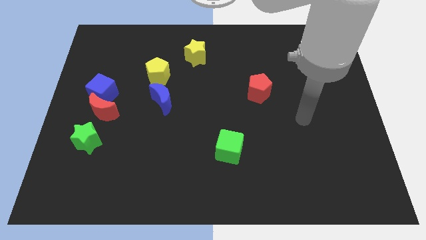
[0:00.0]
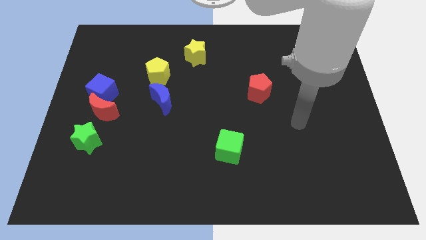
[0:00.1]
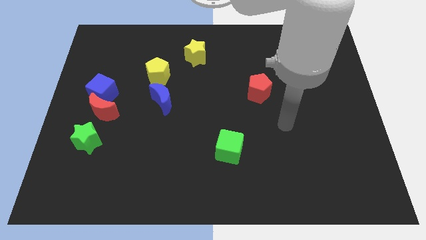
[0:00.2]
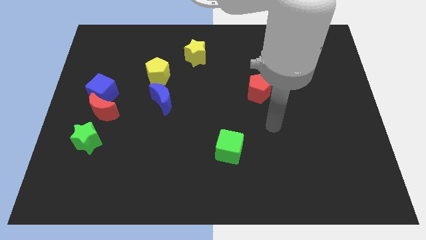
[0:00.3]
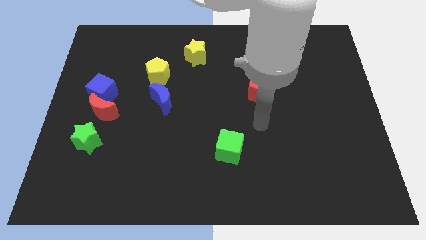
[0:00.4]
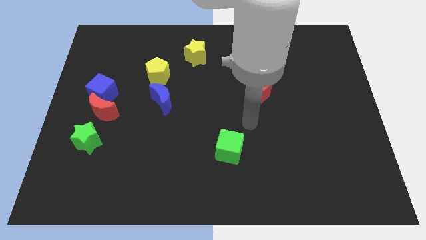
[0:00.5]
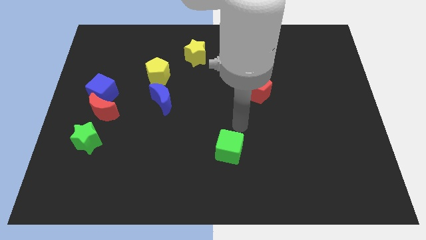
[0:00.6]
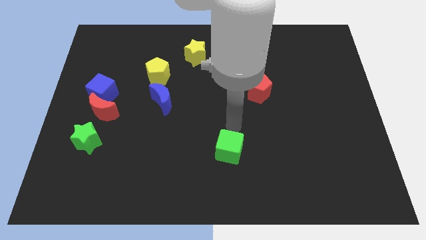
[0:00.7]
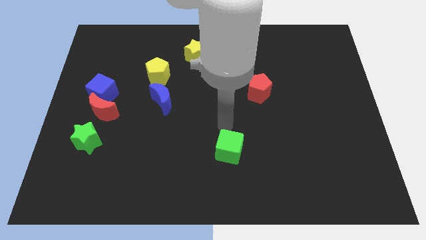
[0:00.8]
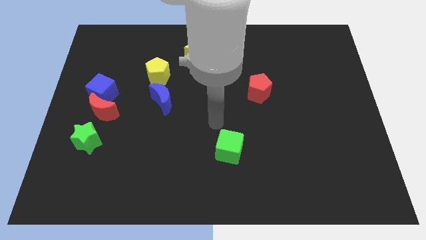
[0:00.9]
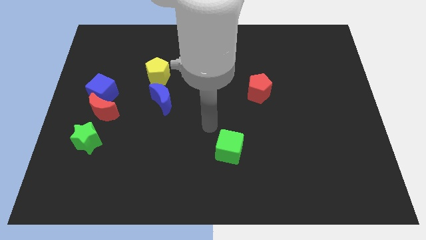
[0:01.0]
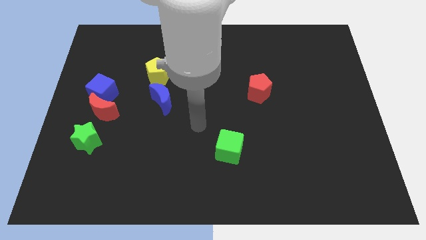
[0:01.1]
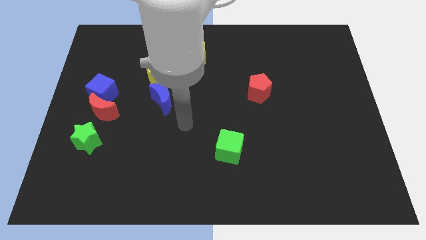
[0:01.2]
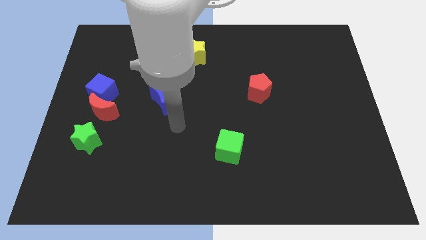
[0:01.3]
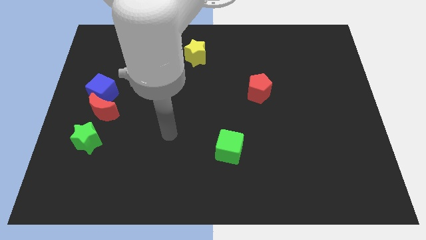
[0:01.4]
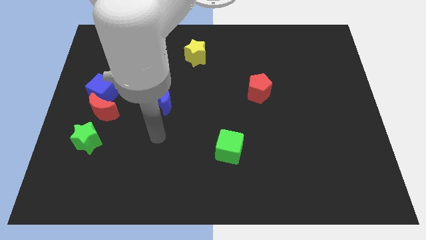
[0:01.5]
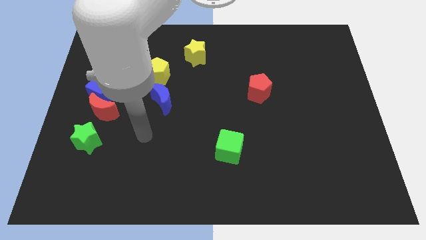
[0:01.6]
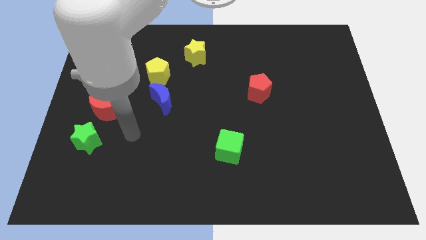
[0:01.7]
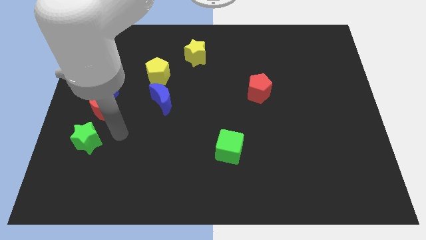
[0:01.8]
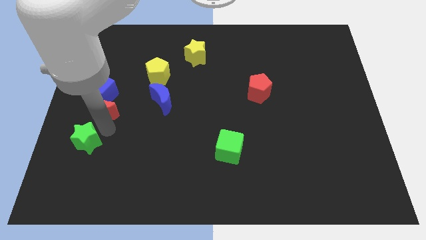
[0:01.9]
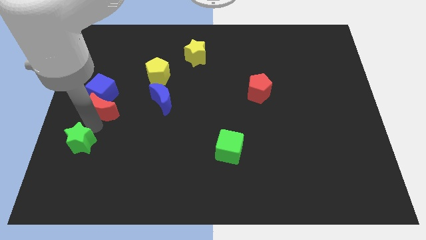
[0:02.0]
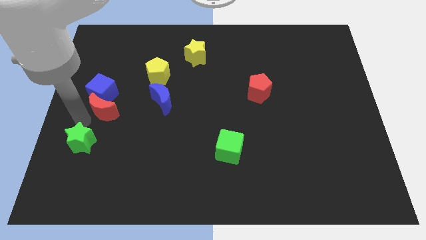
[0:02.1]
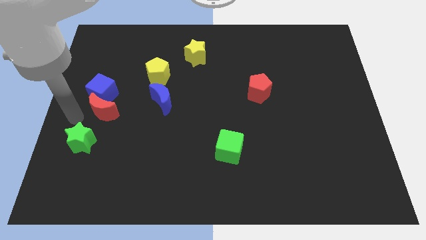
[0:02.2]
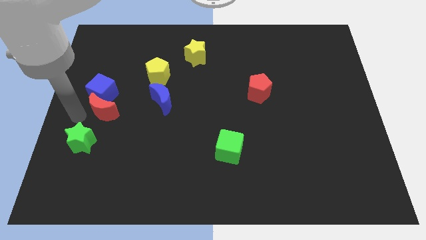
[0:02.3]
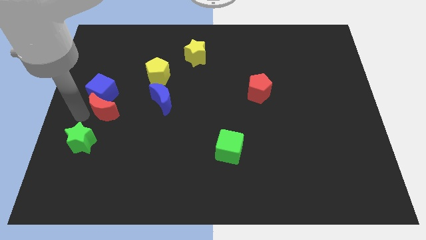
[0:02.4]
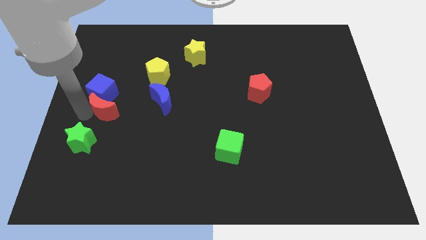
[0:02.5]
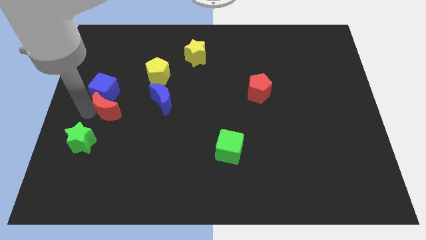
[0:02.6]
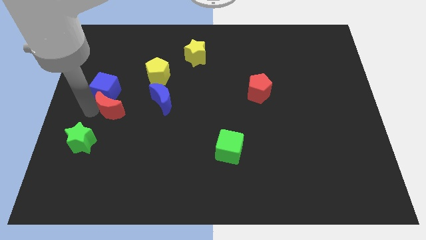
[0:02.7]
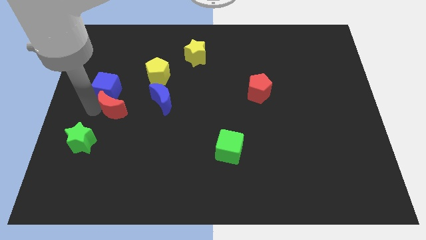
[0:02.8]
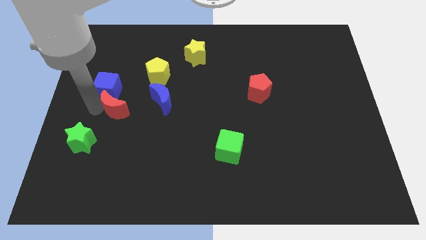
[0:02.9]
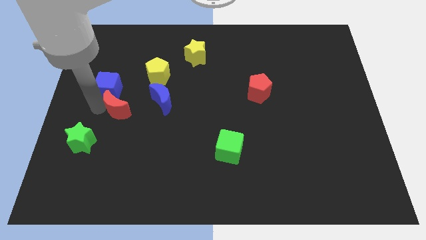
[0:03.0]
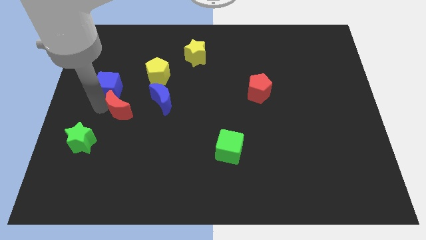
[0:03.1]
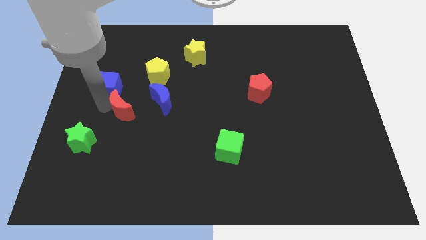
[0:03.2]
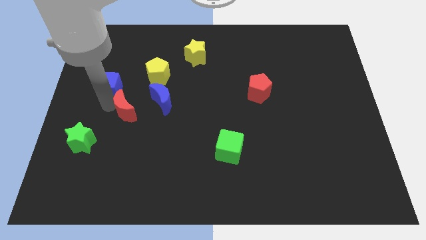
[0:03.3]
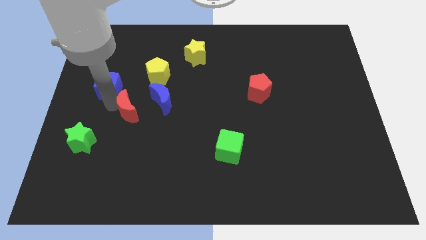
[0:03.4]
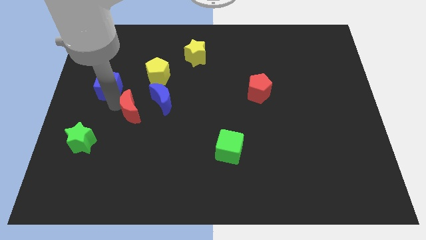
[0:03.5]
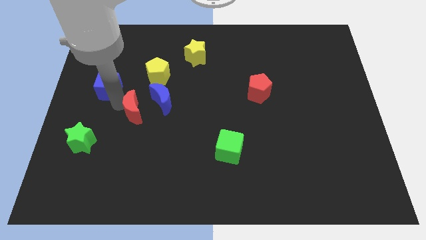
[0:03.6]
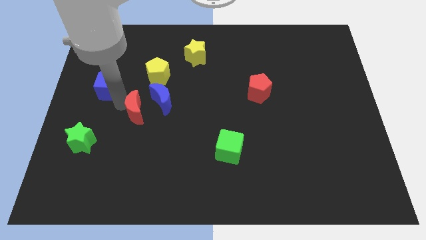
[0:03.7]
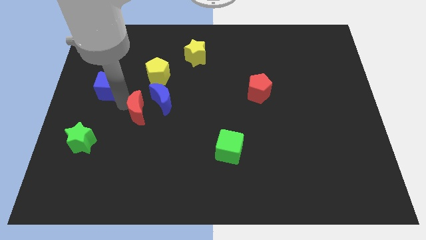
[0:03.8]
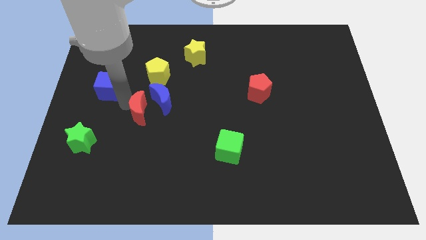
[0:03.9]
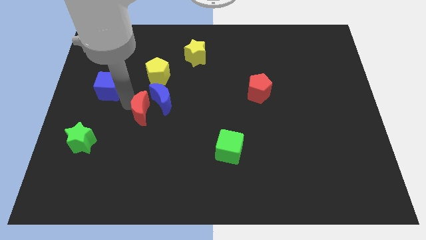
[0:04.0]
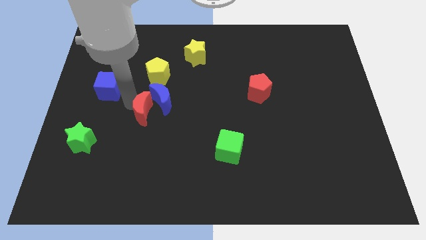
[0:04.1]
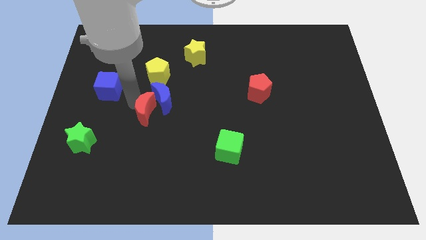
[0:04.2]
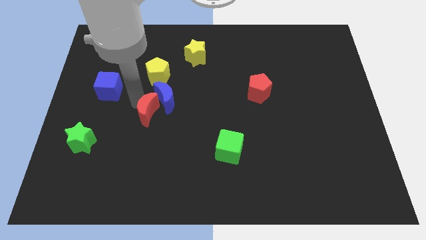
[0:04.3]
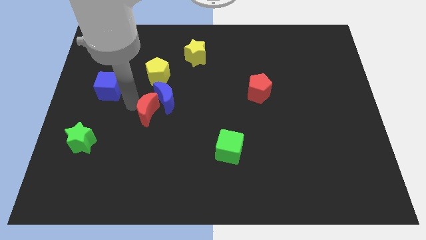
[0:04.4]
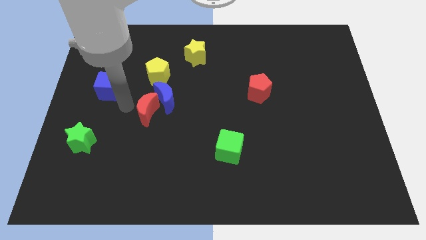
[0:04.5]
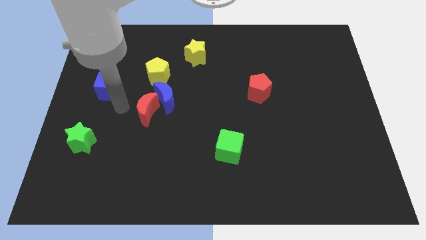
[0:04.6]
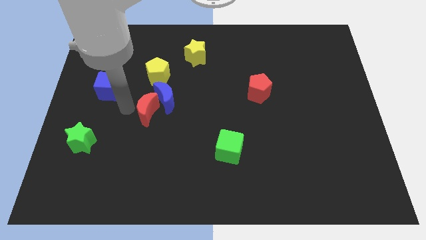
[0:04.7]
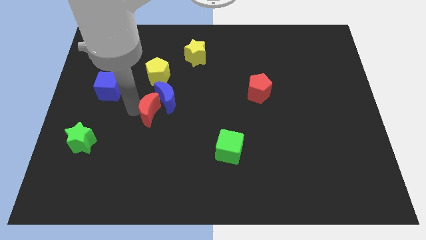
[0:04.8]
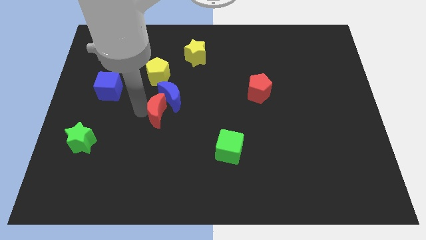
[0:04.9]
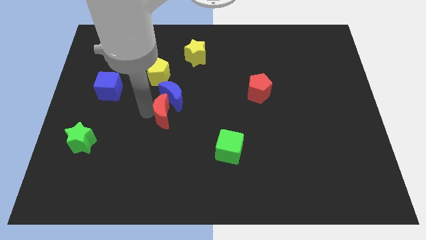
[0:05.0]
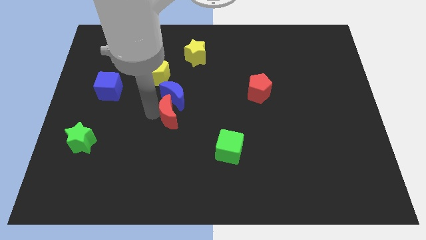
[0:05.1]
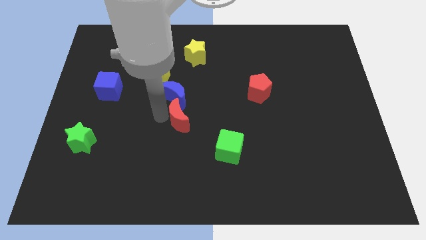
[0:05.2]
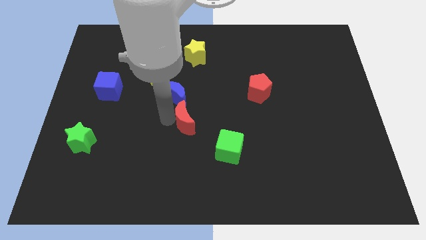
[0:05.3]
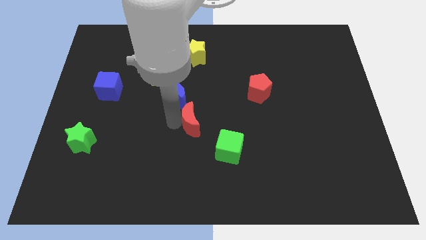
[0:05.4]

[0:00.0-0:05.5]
slide the red moon to the right

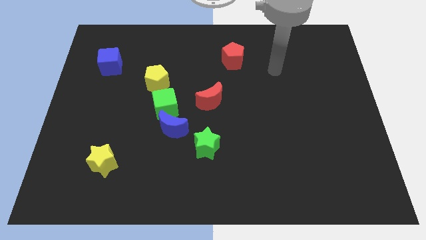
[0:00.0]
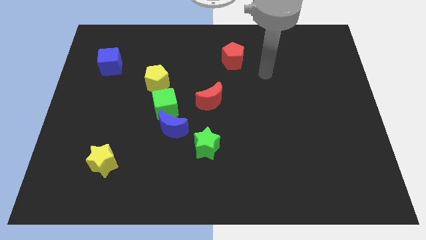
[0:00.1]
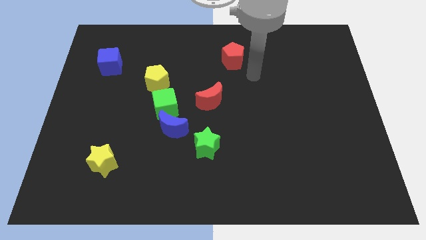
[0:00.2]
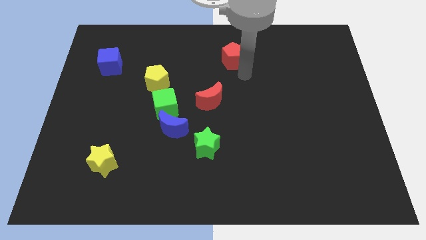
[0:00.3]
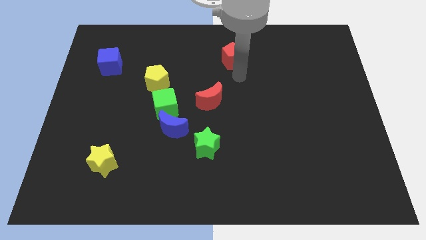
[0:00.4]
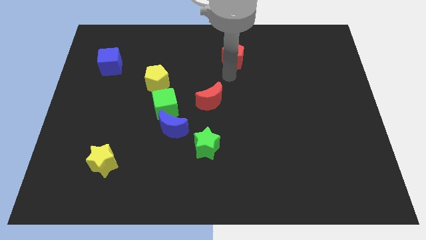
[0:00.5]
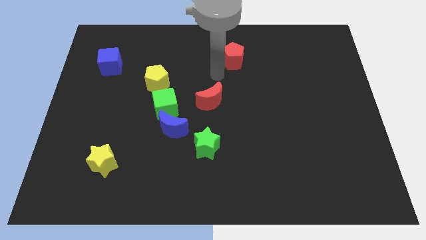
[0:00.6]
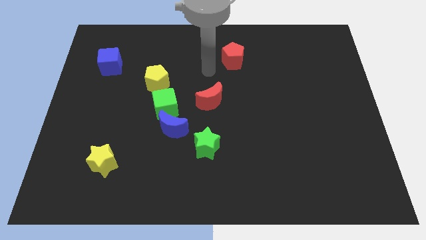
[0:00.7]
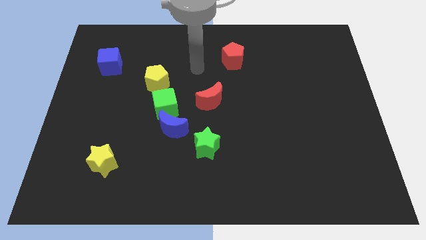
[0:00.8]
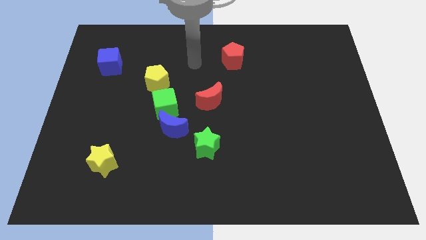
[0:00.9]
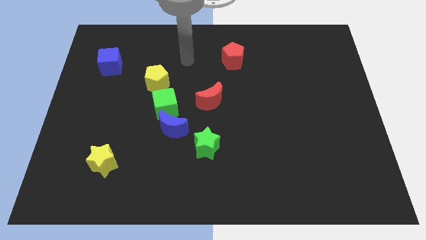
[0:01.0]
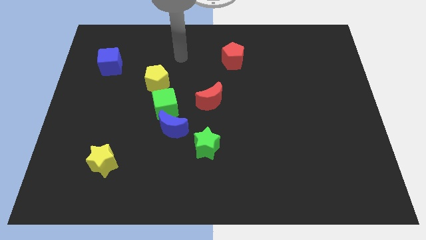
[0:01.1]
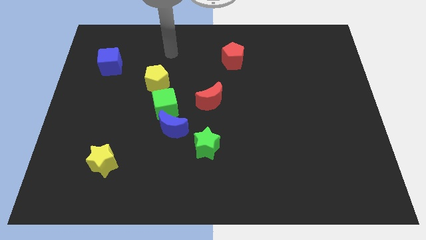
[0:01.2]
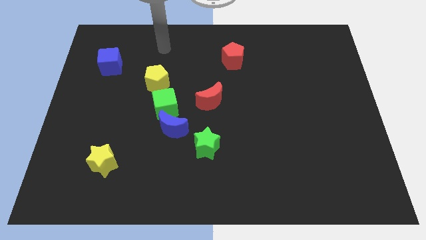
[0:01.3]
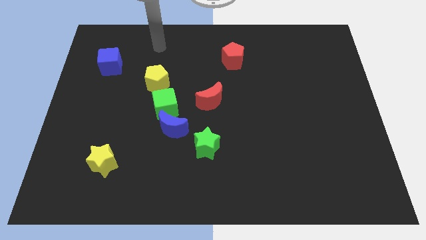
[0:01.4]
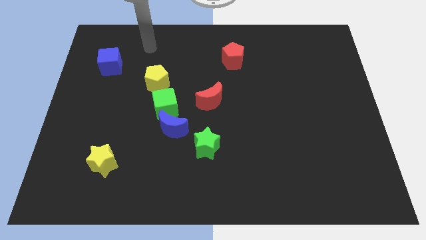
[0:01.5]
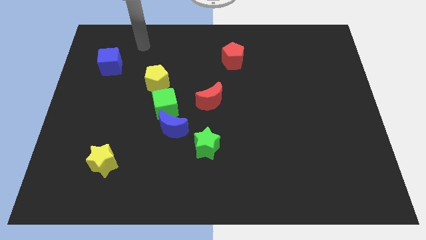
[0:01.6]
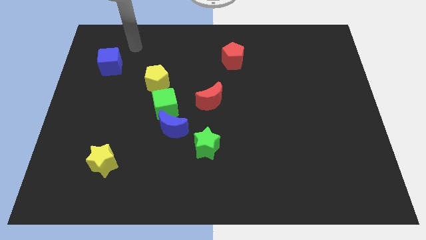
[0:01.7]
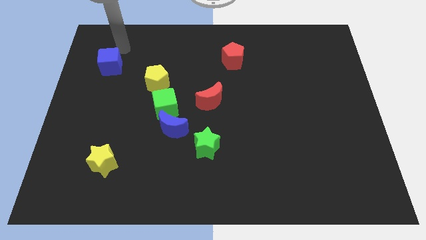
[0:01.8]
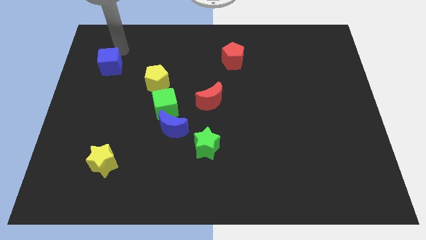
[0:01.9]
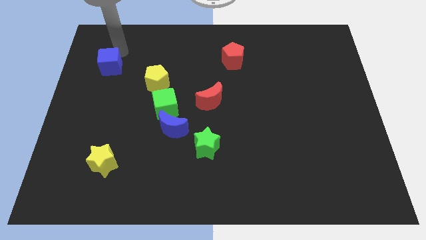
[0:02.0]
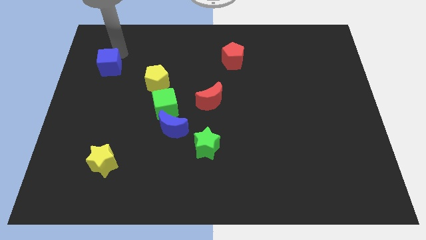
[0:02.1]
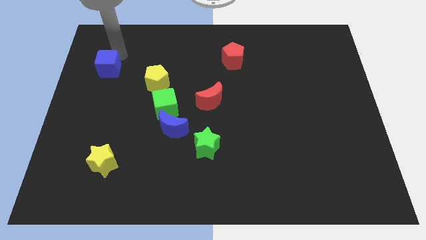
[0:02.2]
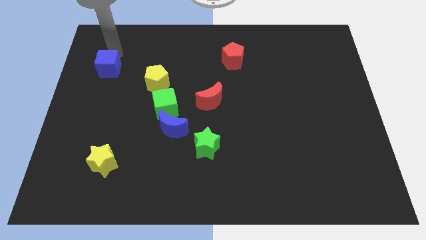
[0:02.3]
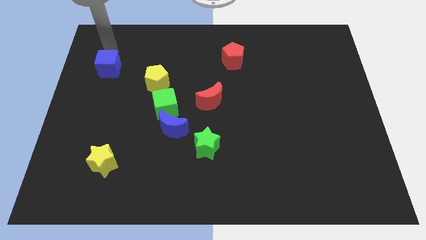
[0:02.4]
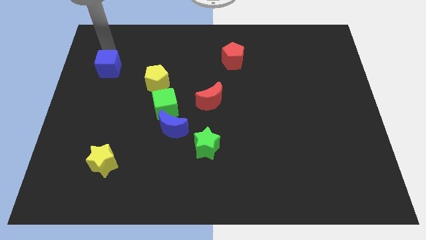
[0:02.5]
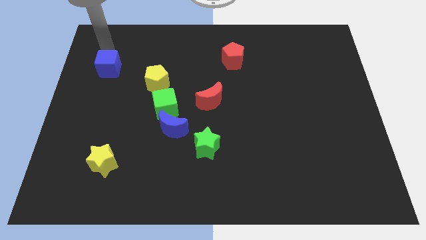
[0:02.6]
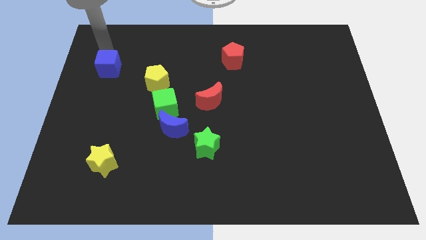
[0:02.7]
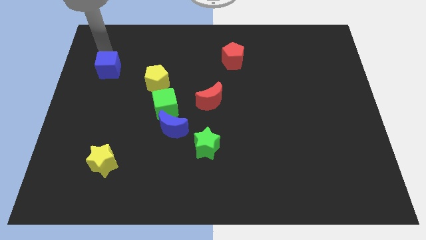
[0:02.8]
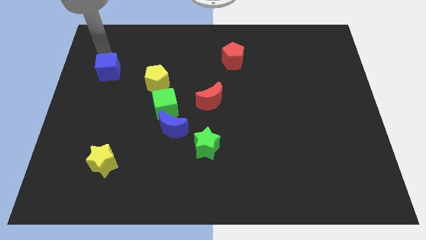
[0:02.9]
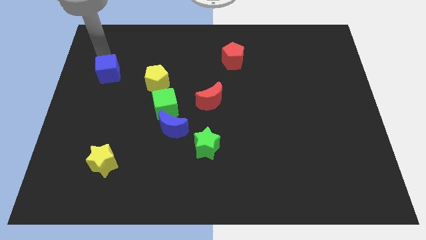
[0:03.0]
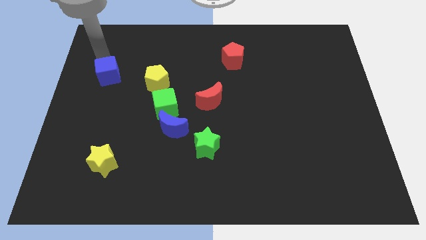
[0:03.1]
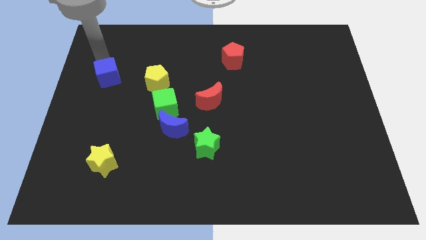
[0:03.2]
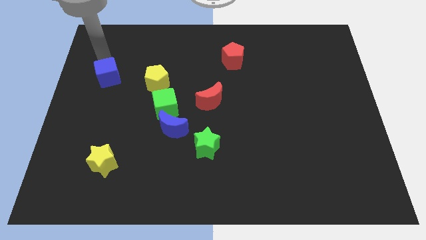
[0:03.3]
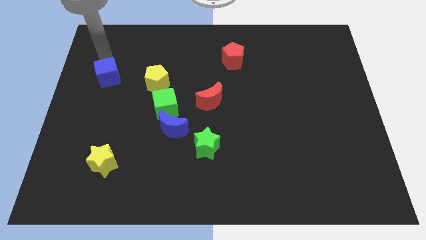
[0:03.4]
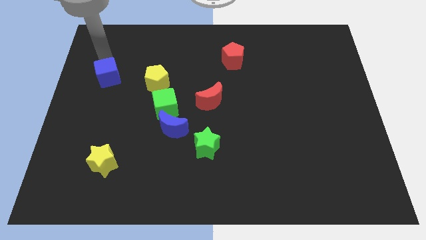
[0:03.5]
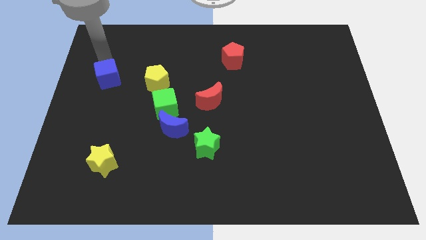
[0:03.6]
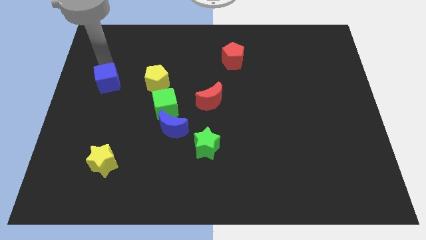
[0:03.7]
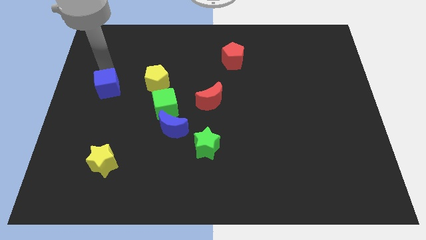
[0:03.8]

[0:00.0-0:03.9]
push the blue cube somewhat downwards
